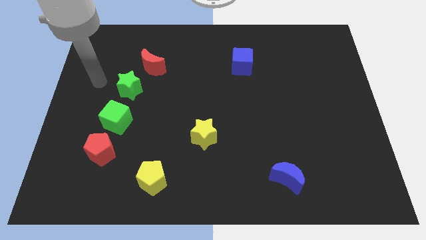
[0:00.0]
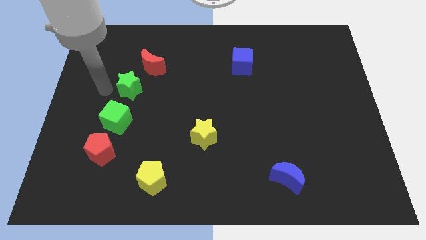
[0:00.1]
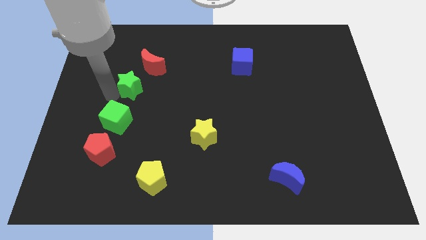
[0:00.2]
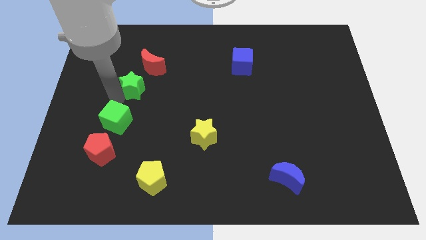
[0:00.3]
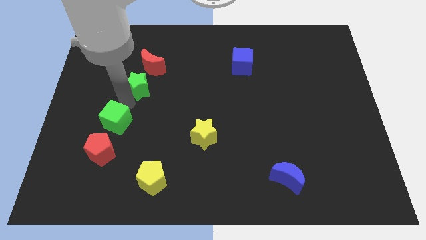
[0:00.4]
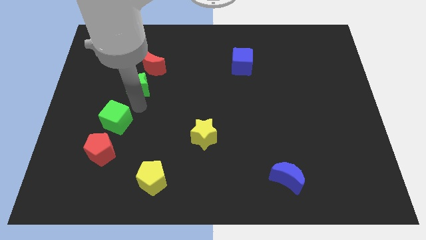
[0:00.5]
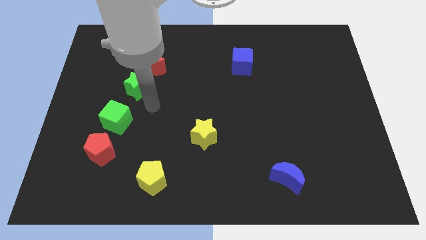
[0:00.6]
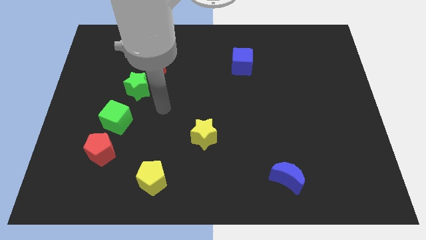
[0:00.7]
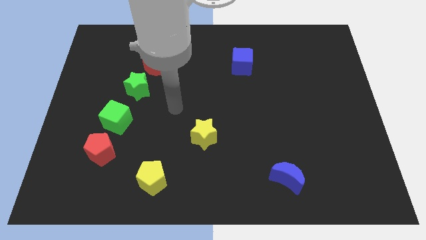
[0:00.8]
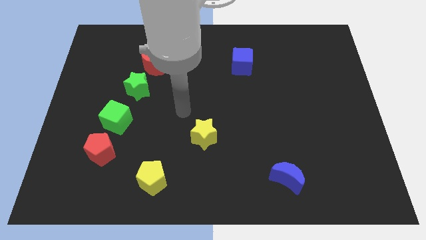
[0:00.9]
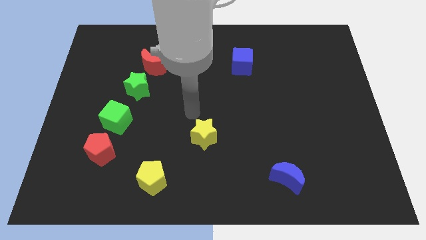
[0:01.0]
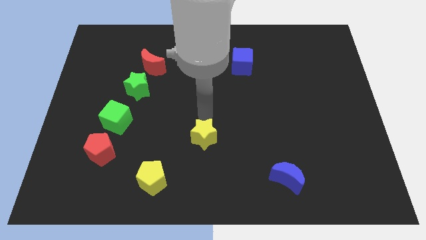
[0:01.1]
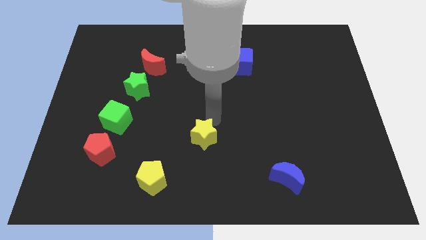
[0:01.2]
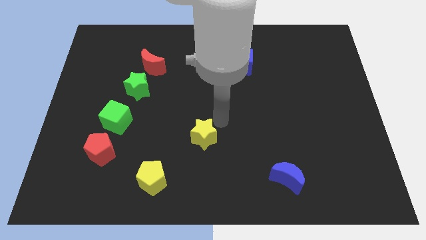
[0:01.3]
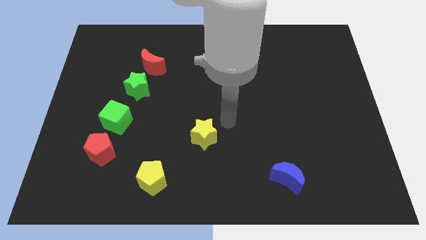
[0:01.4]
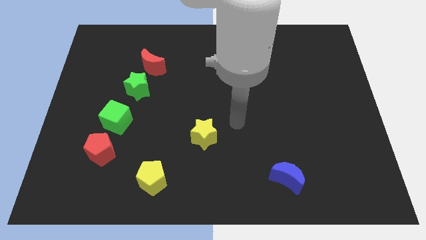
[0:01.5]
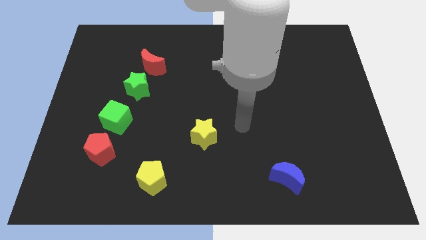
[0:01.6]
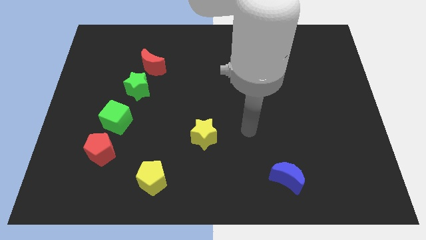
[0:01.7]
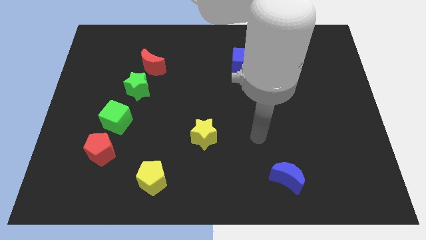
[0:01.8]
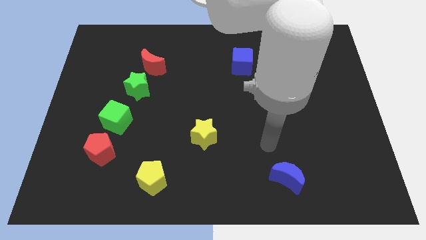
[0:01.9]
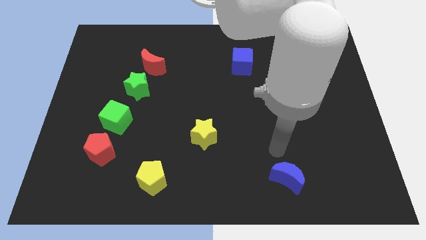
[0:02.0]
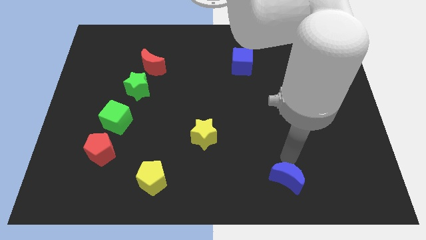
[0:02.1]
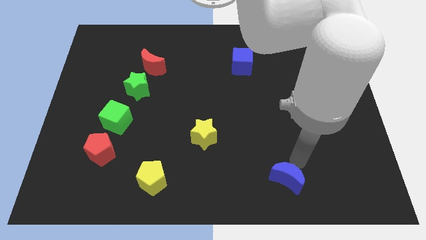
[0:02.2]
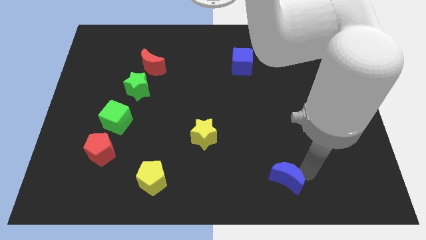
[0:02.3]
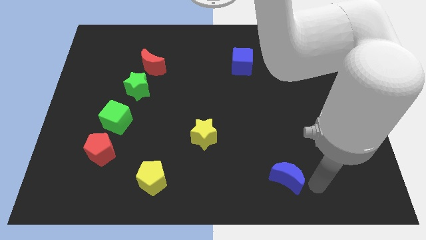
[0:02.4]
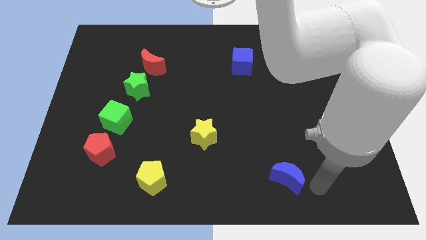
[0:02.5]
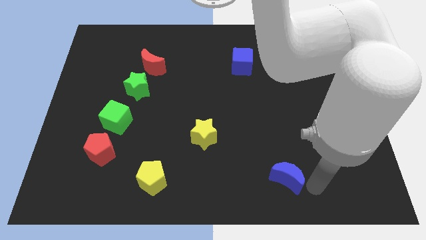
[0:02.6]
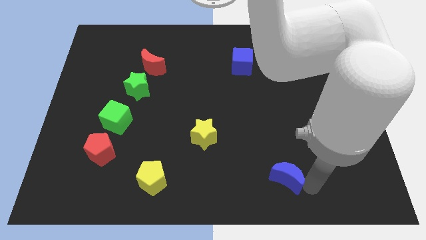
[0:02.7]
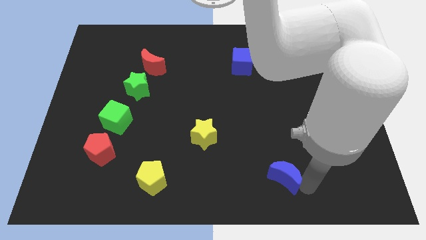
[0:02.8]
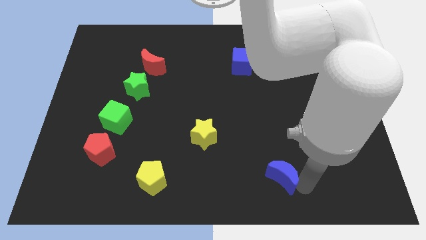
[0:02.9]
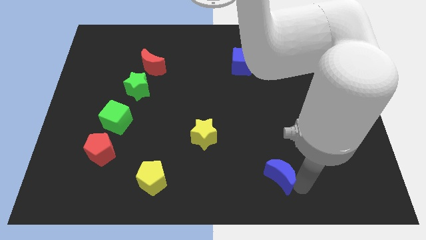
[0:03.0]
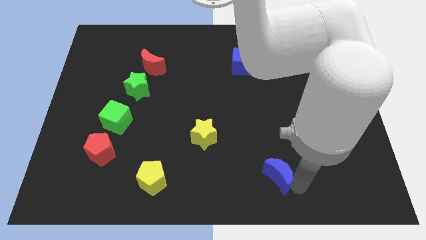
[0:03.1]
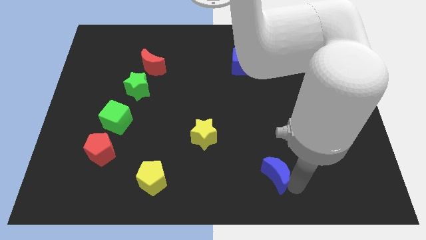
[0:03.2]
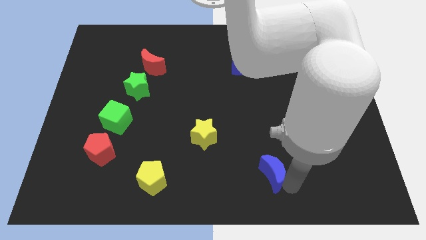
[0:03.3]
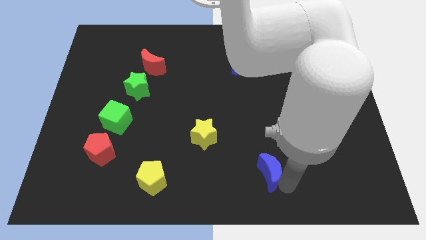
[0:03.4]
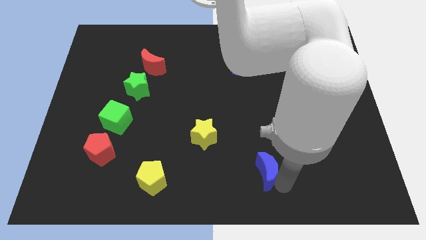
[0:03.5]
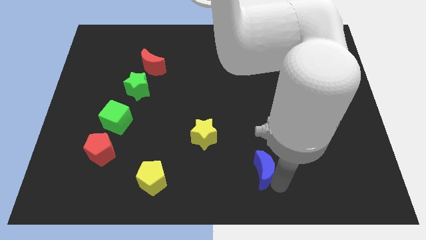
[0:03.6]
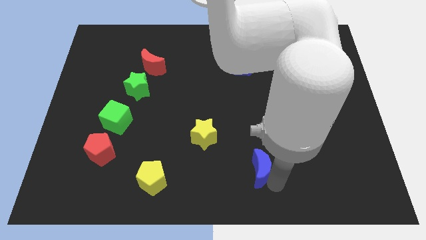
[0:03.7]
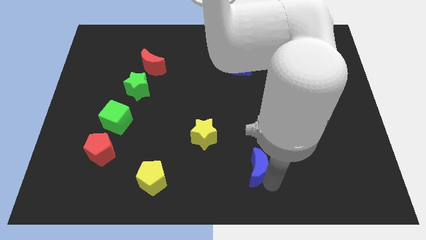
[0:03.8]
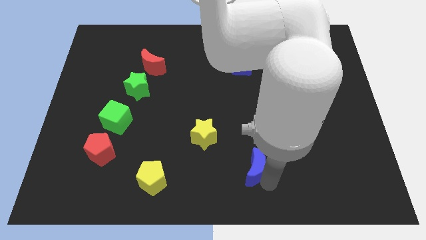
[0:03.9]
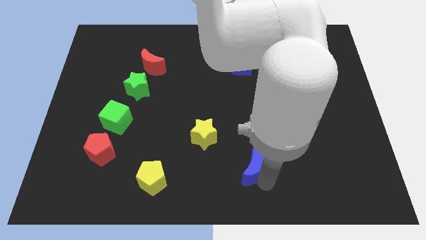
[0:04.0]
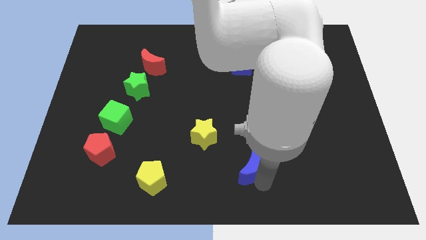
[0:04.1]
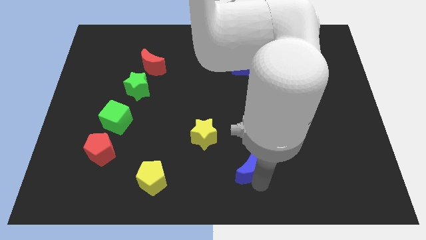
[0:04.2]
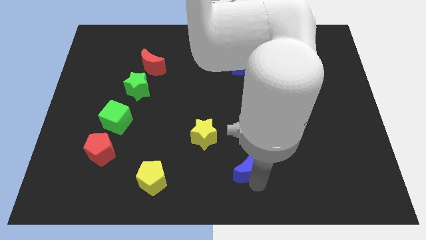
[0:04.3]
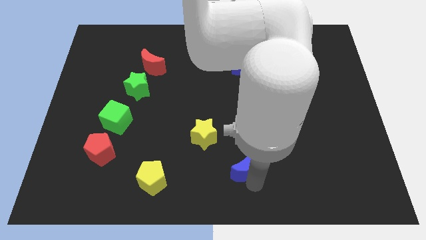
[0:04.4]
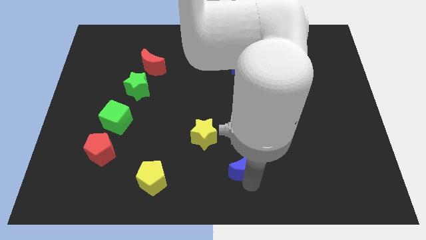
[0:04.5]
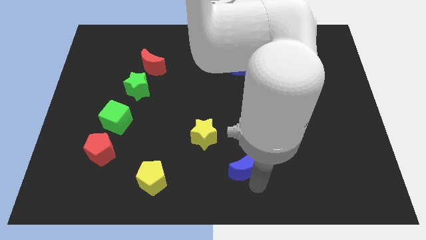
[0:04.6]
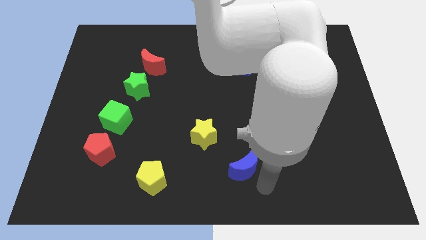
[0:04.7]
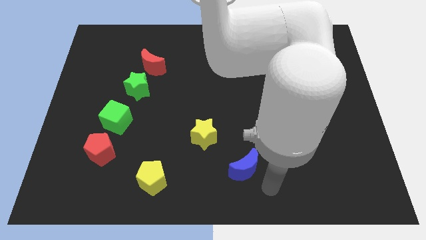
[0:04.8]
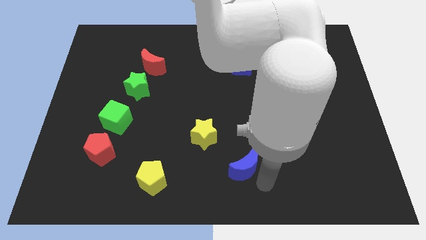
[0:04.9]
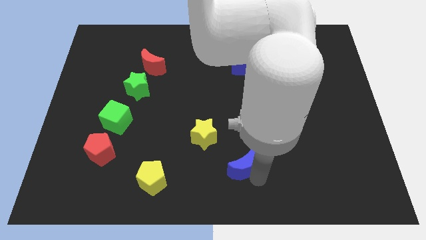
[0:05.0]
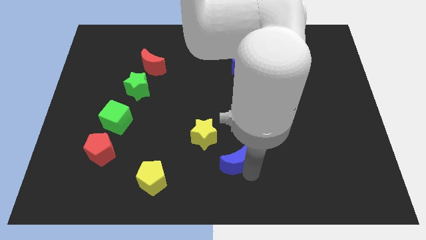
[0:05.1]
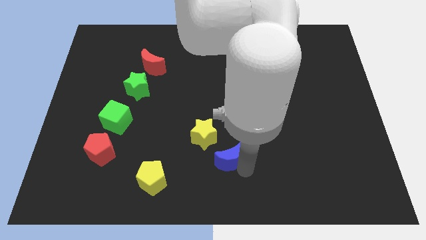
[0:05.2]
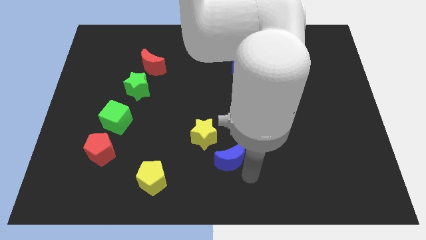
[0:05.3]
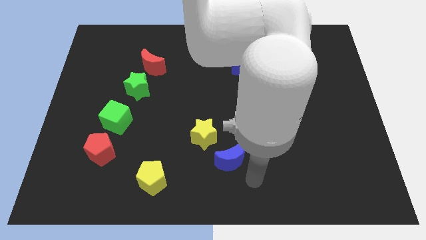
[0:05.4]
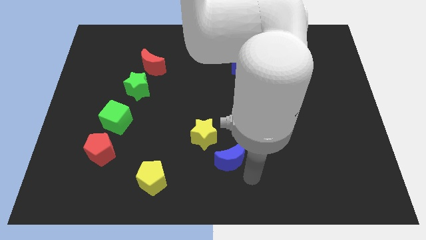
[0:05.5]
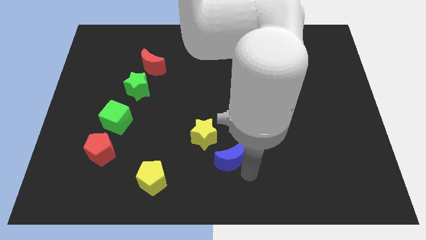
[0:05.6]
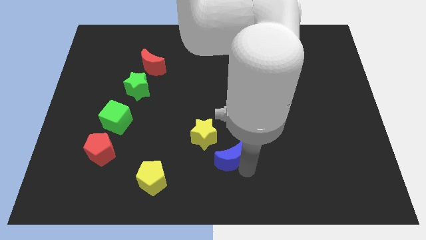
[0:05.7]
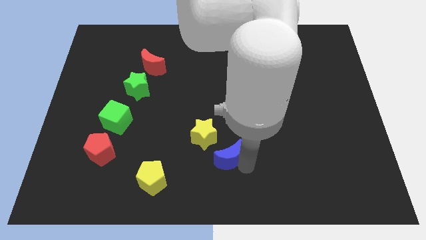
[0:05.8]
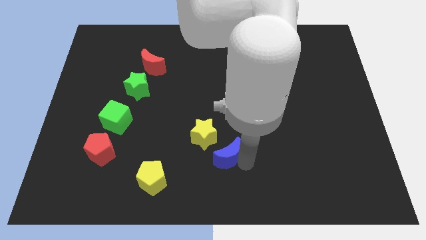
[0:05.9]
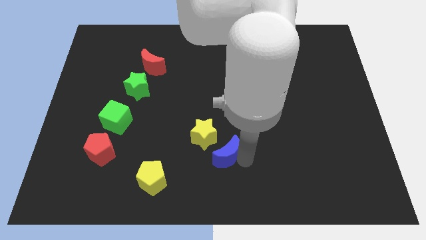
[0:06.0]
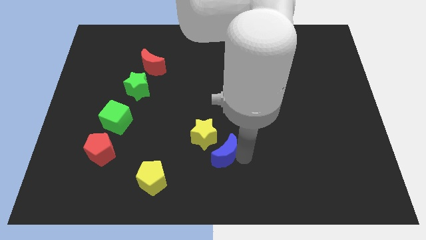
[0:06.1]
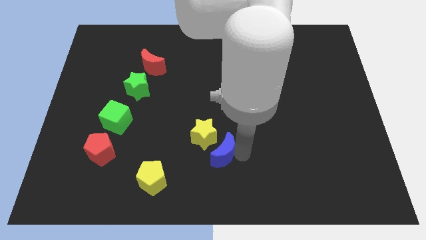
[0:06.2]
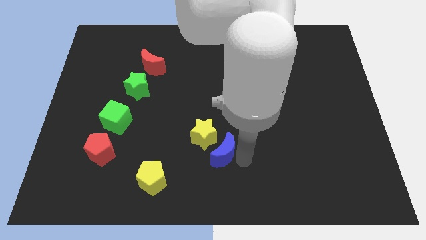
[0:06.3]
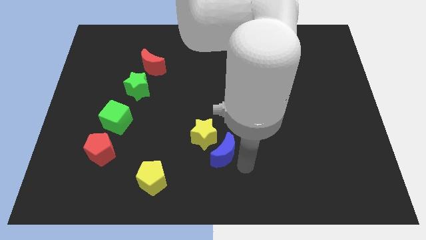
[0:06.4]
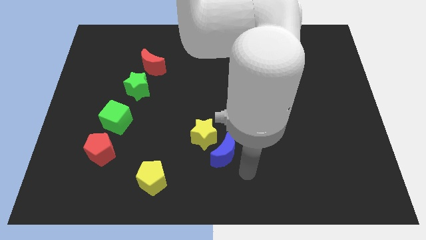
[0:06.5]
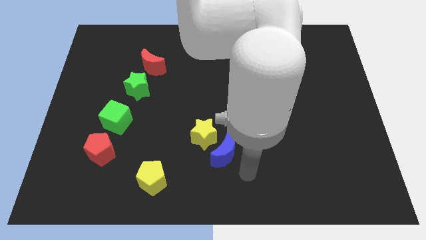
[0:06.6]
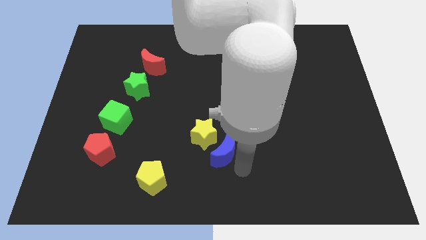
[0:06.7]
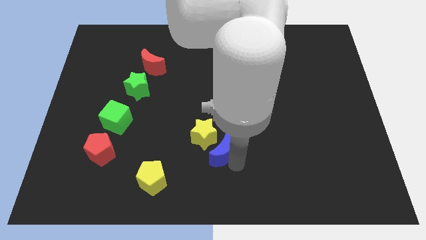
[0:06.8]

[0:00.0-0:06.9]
push the blue moon next to the yellow star

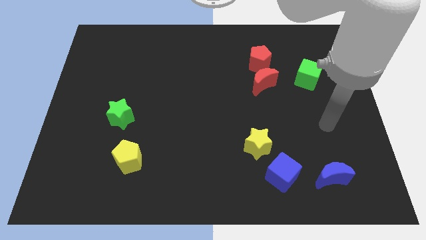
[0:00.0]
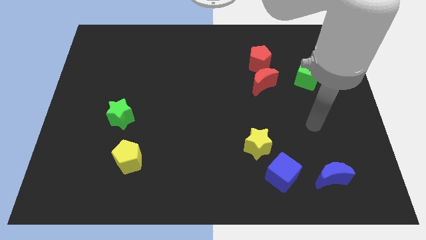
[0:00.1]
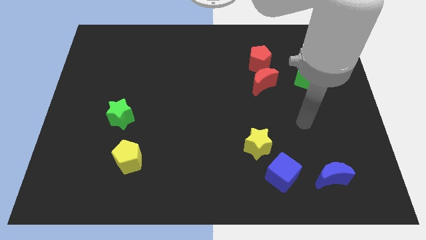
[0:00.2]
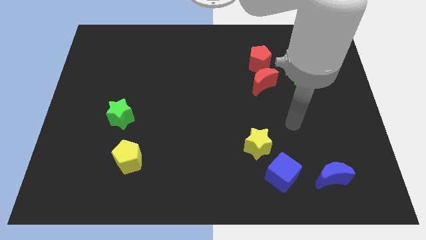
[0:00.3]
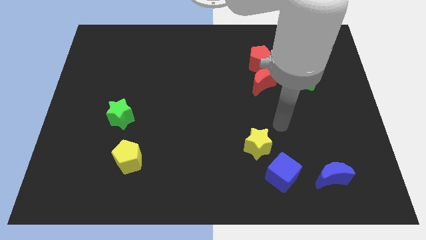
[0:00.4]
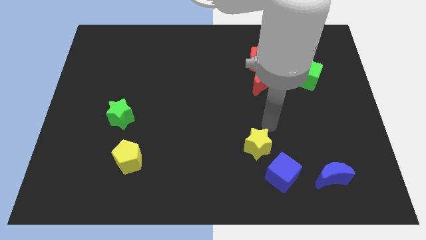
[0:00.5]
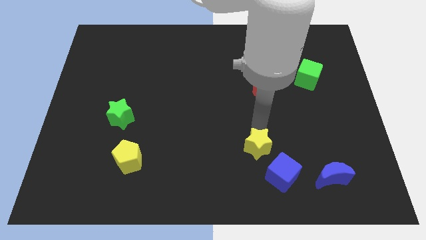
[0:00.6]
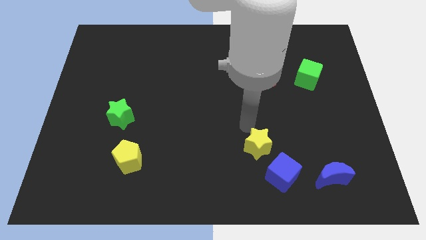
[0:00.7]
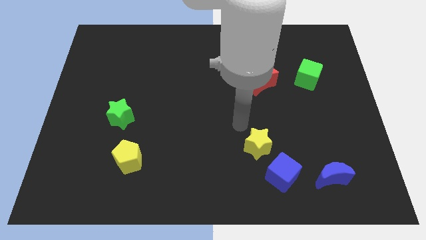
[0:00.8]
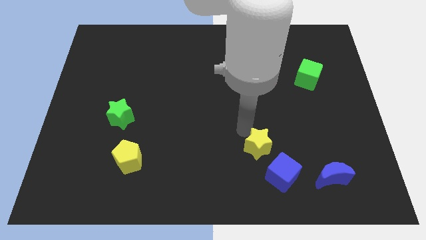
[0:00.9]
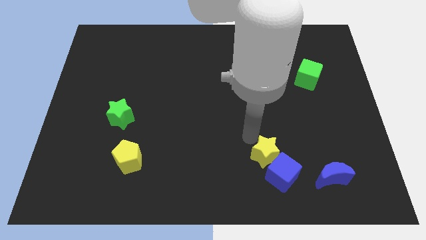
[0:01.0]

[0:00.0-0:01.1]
move the yellow star towards the blue cube
